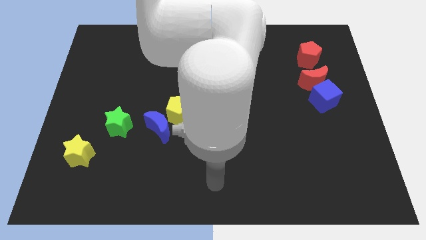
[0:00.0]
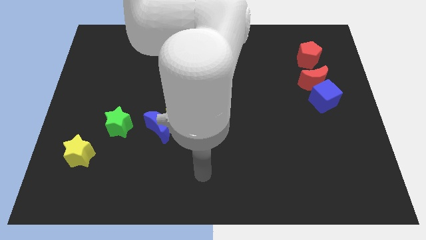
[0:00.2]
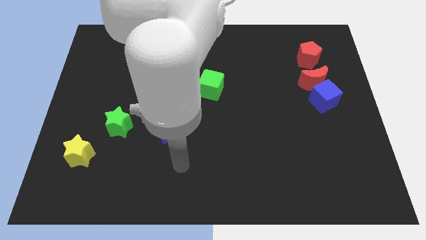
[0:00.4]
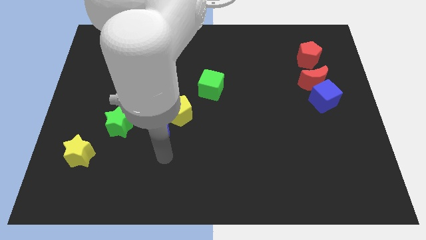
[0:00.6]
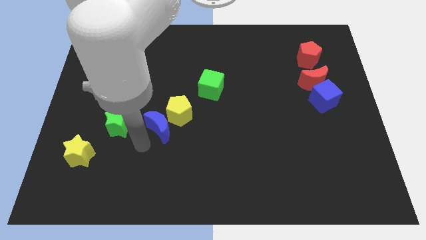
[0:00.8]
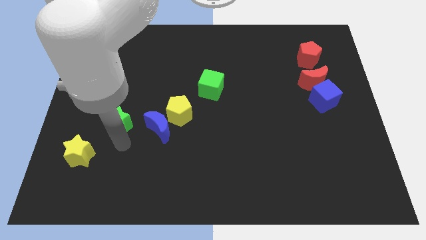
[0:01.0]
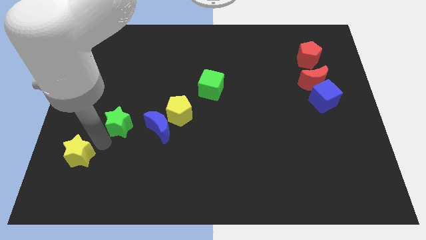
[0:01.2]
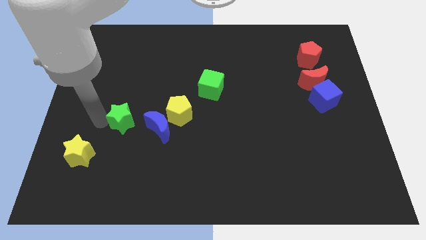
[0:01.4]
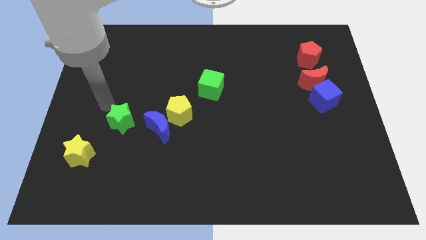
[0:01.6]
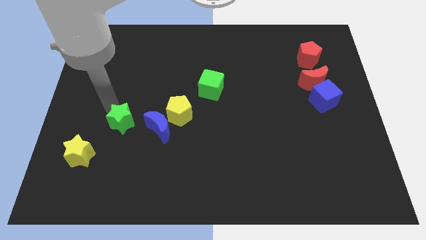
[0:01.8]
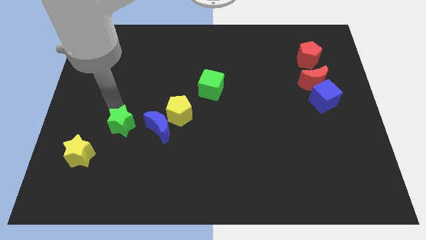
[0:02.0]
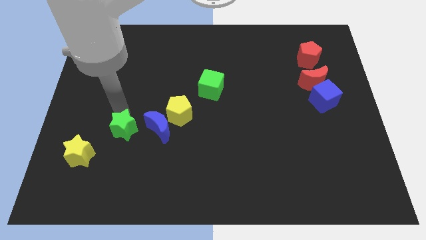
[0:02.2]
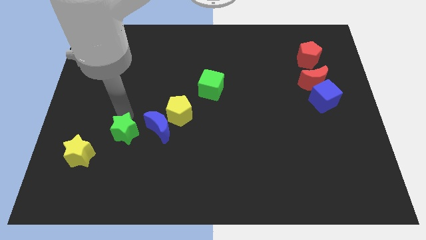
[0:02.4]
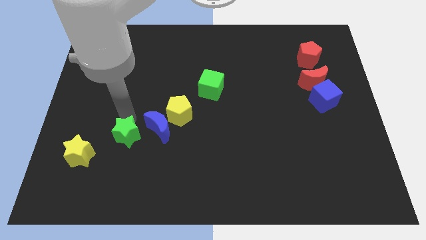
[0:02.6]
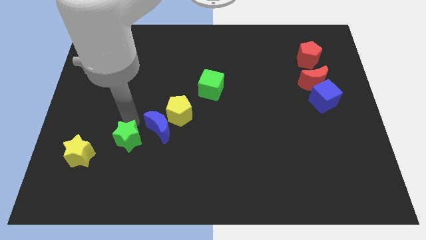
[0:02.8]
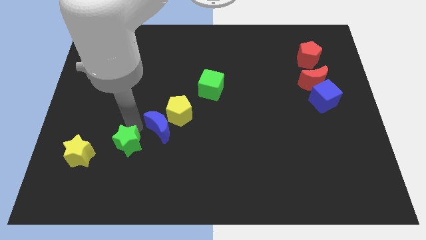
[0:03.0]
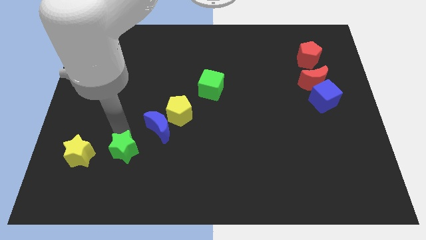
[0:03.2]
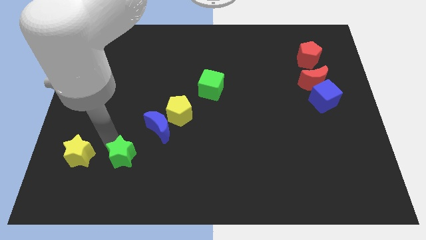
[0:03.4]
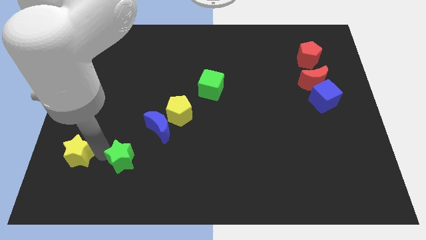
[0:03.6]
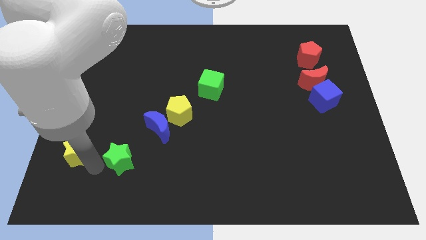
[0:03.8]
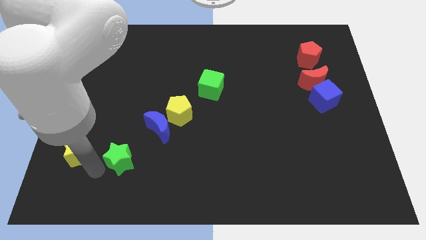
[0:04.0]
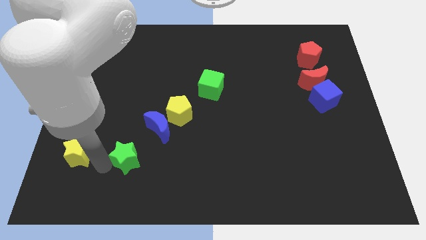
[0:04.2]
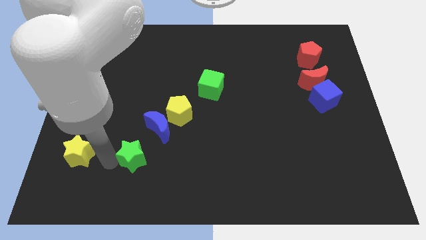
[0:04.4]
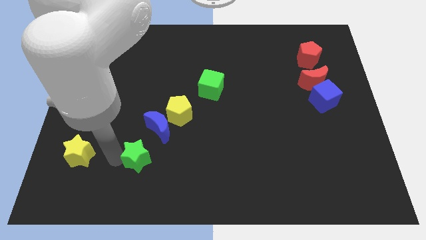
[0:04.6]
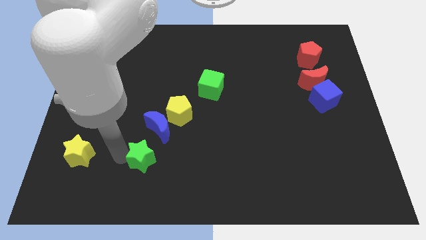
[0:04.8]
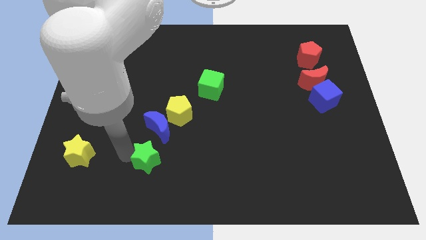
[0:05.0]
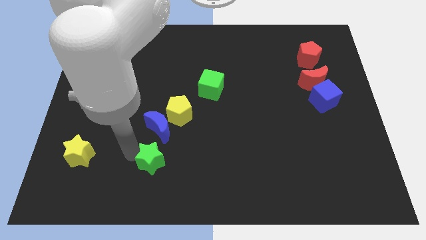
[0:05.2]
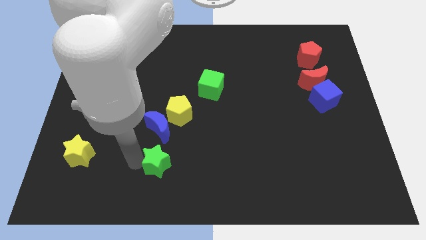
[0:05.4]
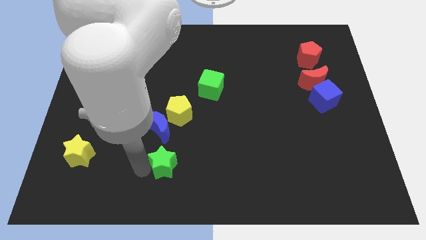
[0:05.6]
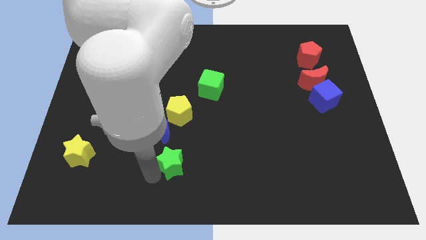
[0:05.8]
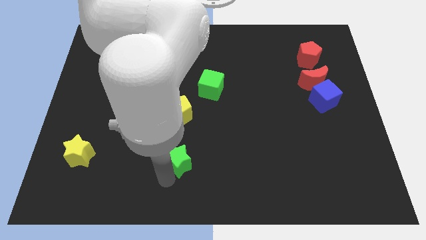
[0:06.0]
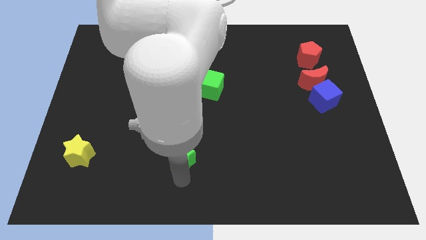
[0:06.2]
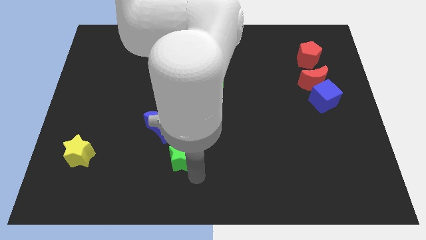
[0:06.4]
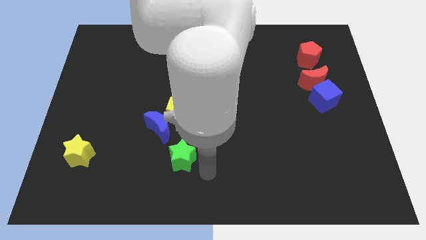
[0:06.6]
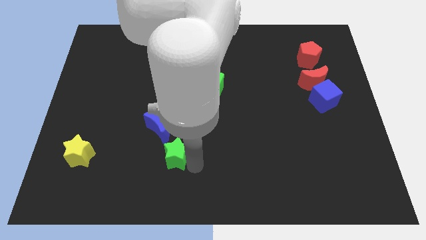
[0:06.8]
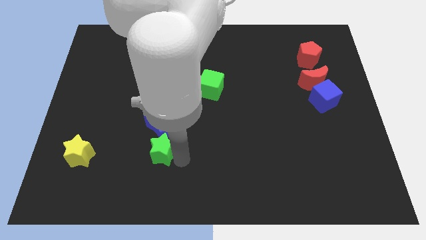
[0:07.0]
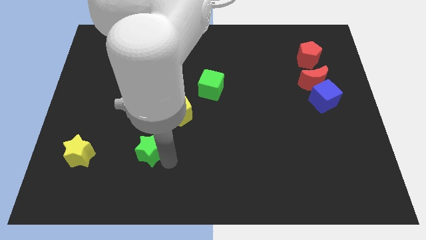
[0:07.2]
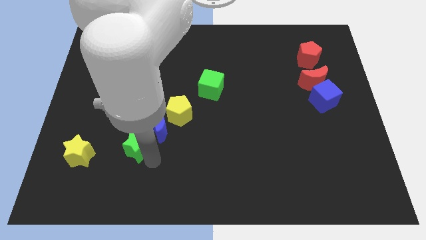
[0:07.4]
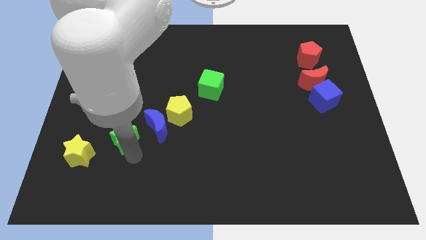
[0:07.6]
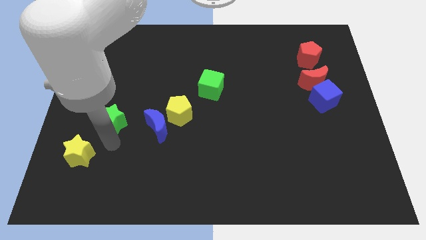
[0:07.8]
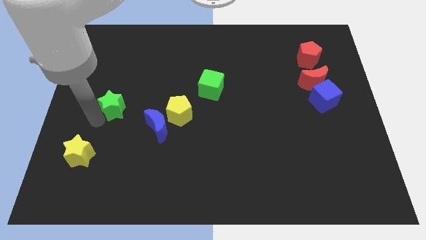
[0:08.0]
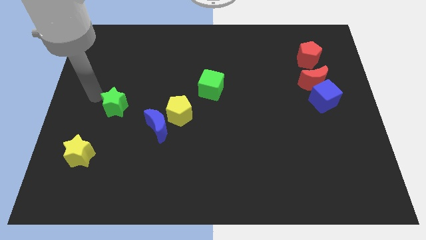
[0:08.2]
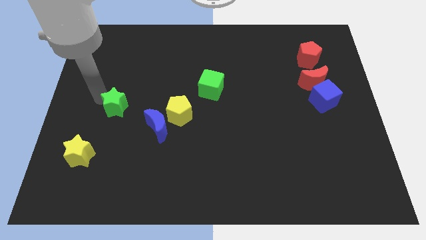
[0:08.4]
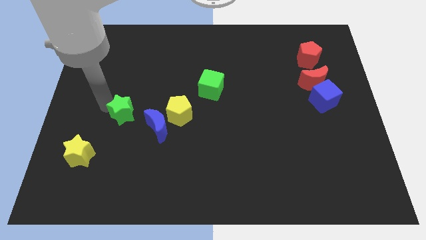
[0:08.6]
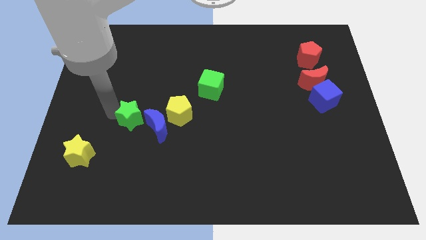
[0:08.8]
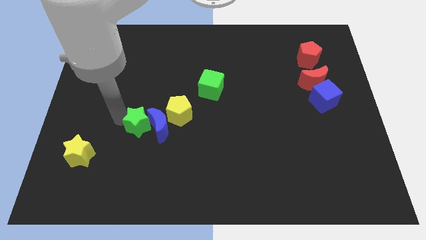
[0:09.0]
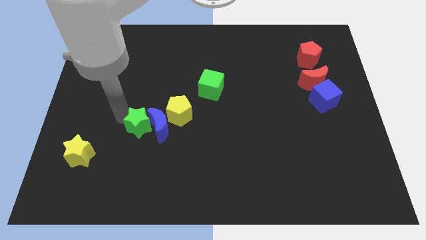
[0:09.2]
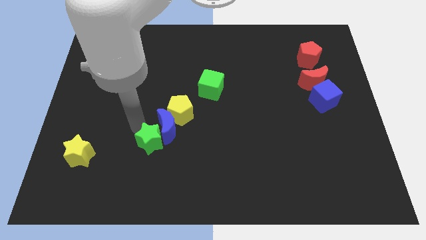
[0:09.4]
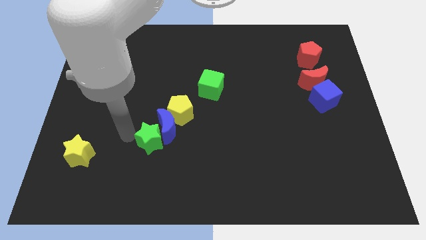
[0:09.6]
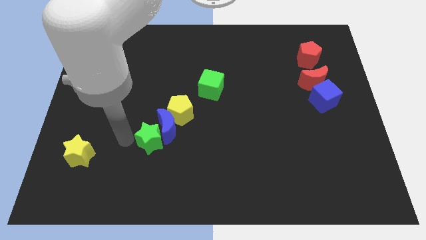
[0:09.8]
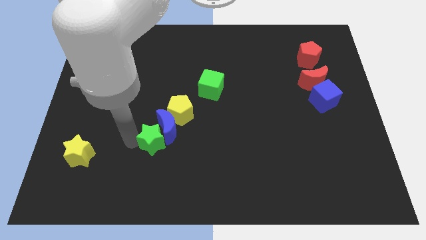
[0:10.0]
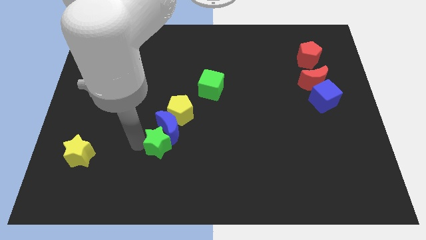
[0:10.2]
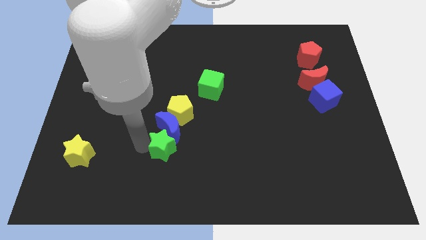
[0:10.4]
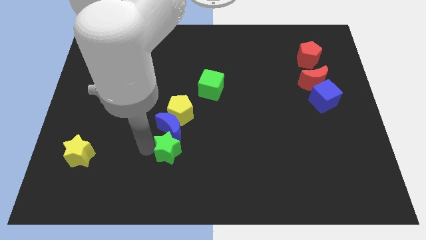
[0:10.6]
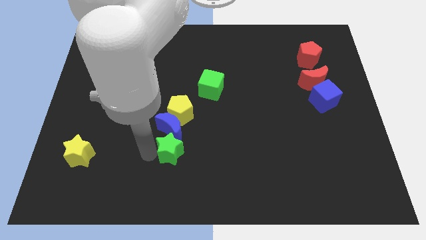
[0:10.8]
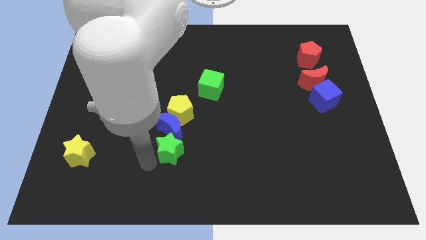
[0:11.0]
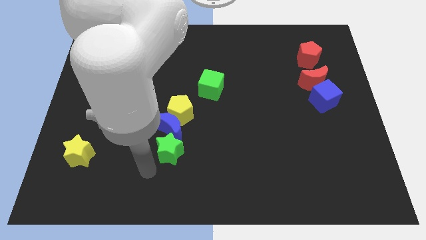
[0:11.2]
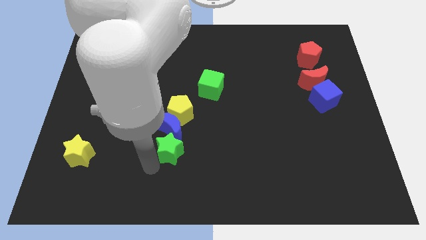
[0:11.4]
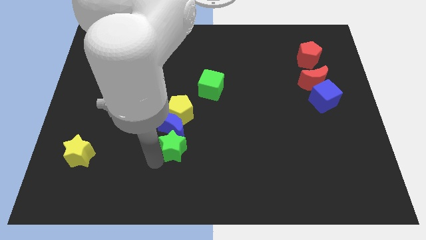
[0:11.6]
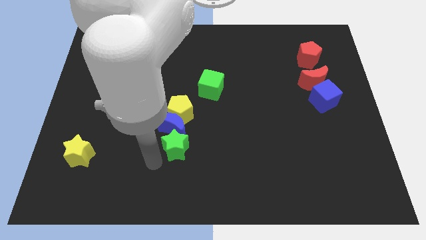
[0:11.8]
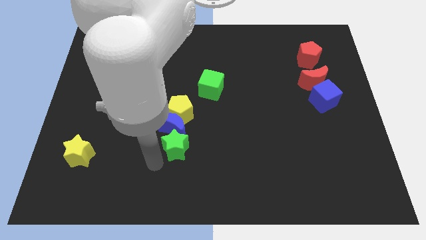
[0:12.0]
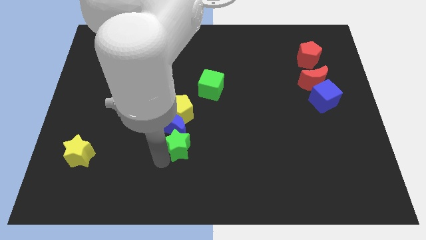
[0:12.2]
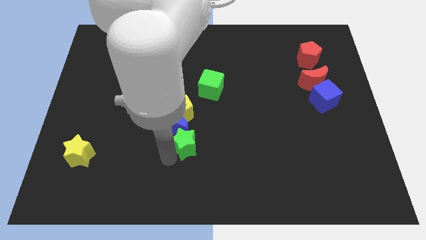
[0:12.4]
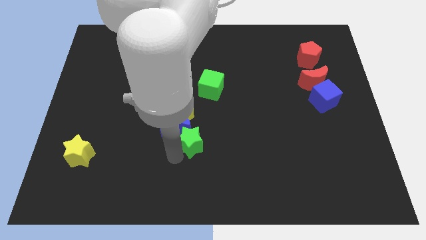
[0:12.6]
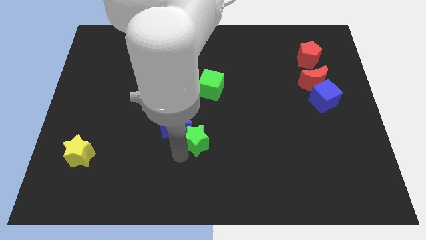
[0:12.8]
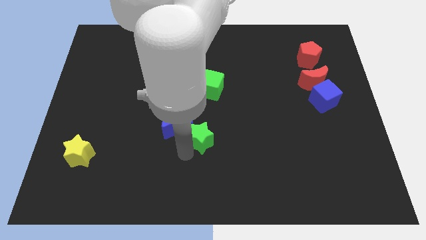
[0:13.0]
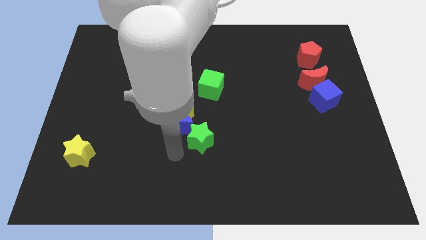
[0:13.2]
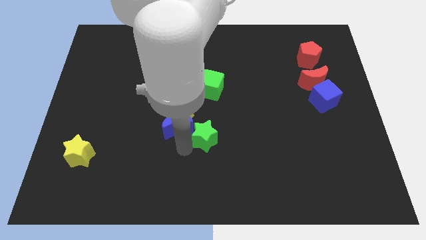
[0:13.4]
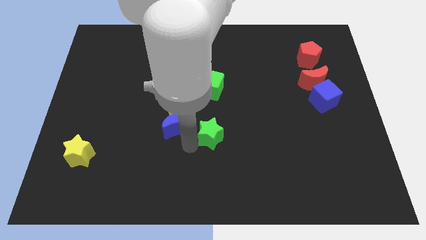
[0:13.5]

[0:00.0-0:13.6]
slide the green star to the right

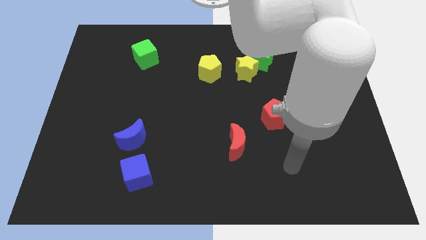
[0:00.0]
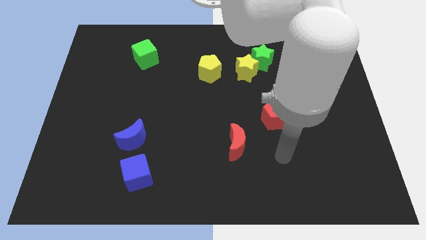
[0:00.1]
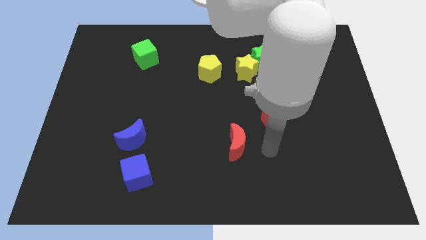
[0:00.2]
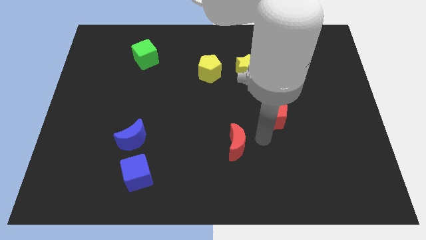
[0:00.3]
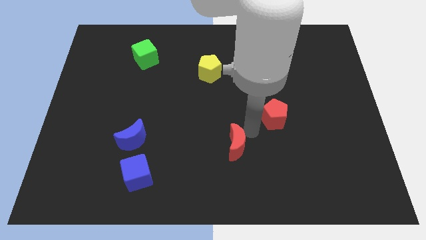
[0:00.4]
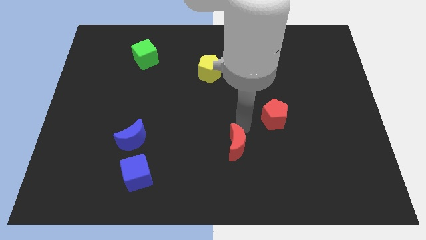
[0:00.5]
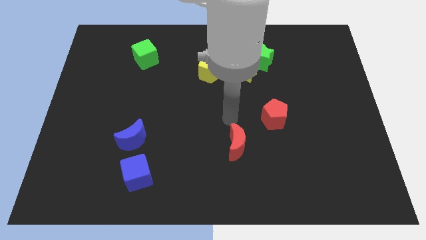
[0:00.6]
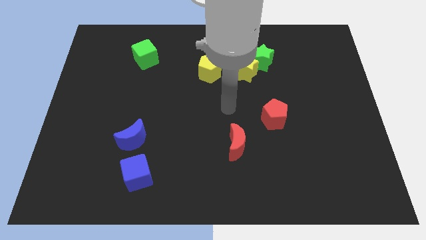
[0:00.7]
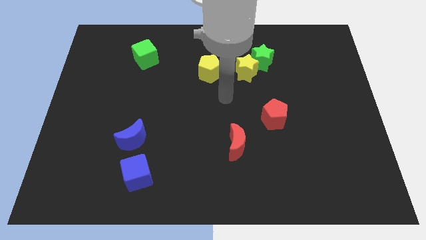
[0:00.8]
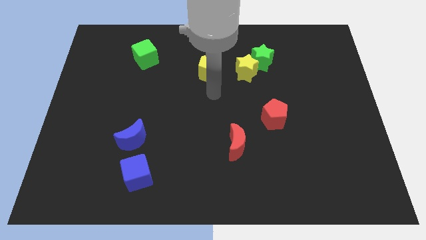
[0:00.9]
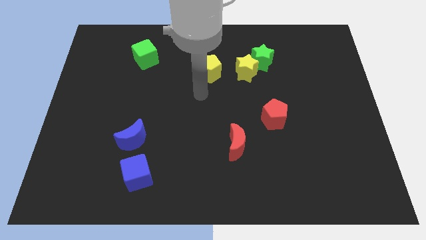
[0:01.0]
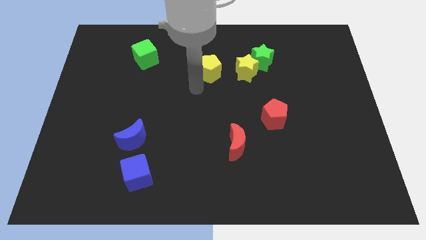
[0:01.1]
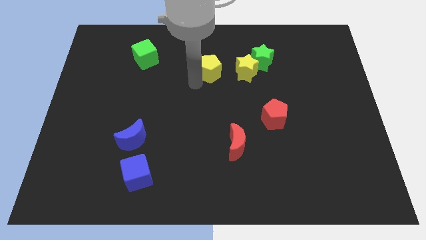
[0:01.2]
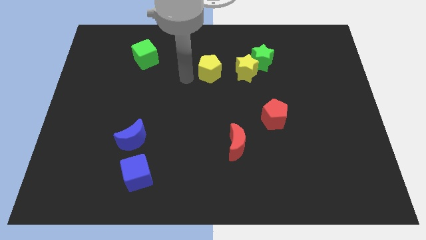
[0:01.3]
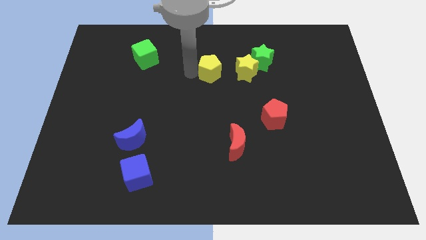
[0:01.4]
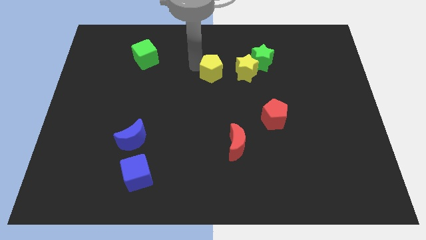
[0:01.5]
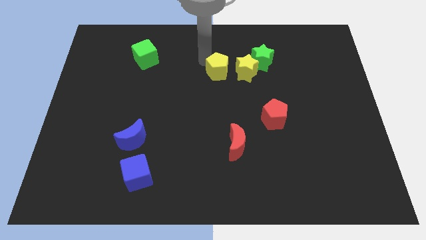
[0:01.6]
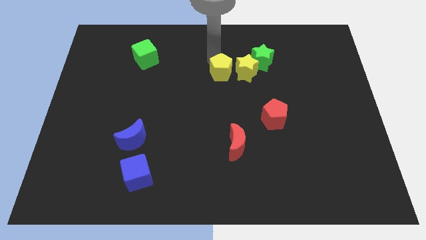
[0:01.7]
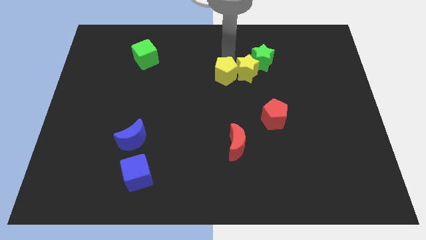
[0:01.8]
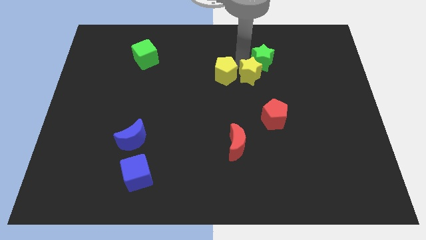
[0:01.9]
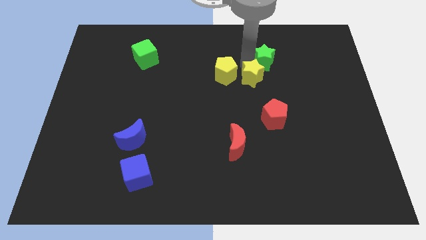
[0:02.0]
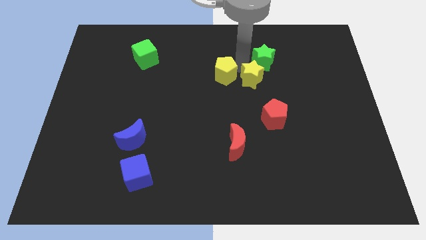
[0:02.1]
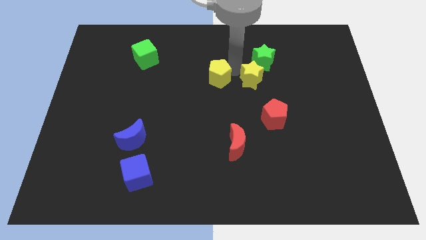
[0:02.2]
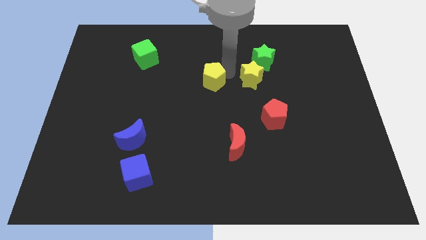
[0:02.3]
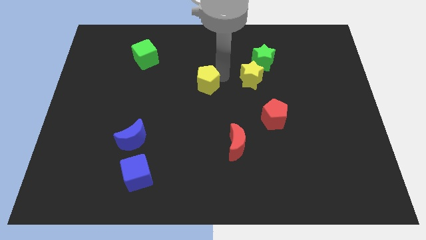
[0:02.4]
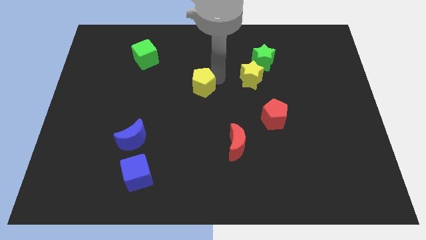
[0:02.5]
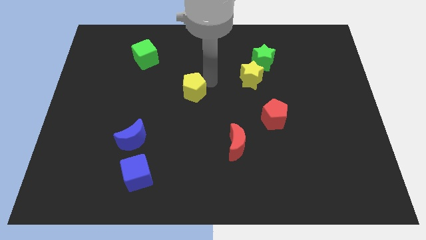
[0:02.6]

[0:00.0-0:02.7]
slide the yellow pentagon a little diagonally downwards and left
